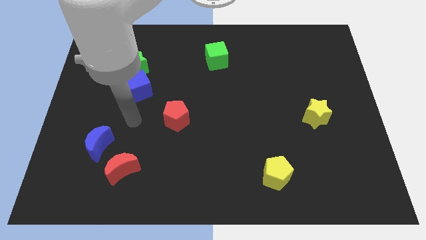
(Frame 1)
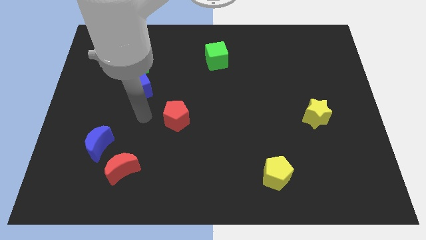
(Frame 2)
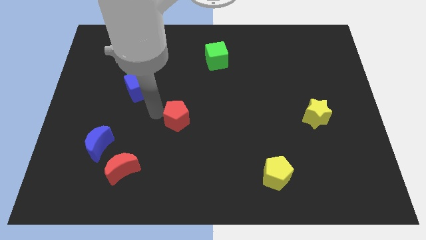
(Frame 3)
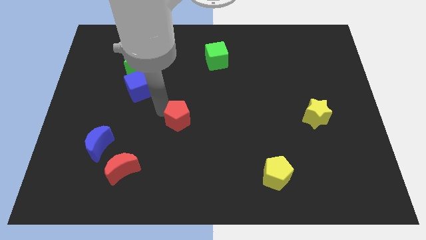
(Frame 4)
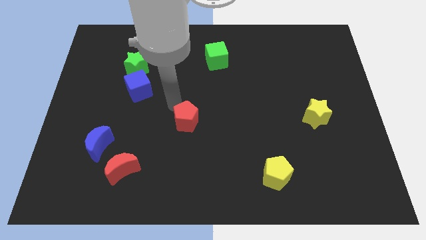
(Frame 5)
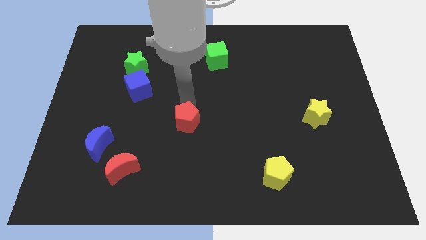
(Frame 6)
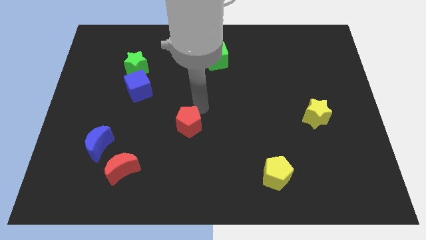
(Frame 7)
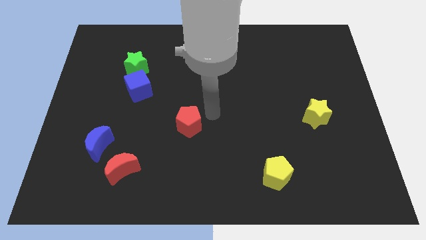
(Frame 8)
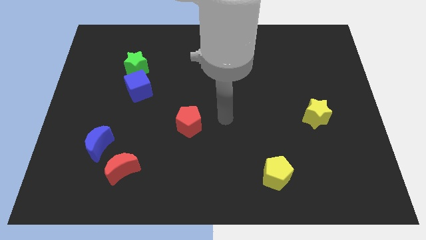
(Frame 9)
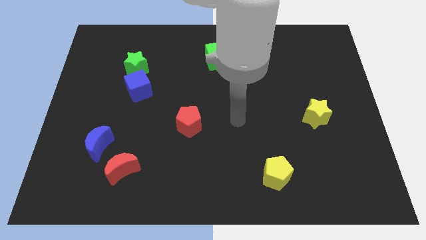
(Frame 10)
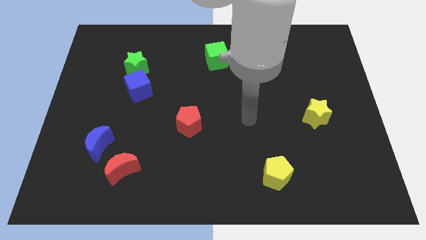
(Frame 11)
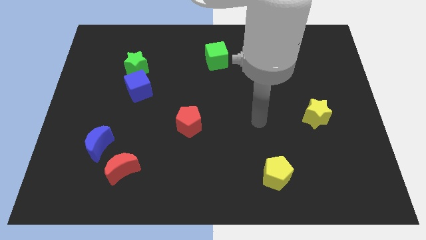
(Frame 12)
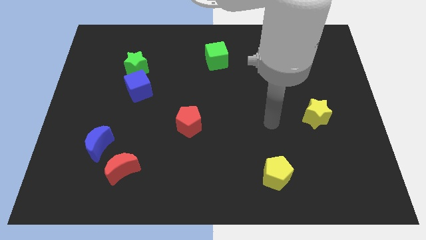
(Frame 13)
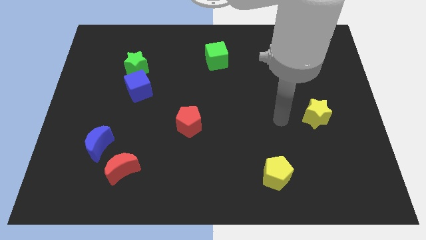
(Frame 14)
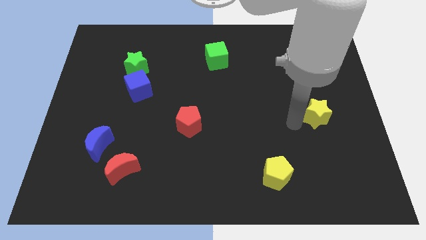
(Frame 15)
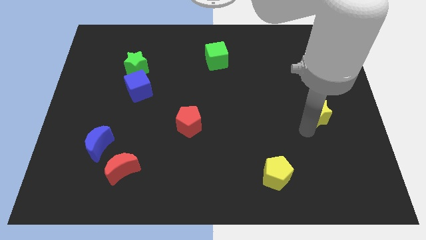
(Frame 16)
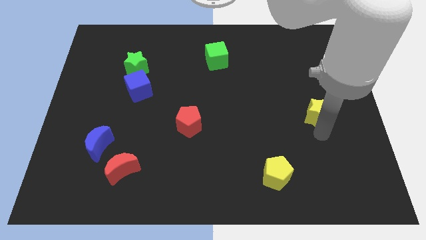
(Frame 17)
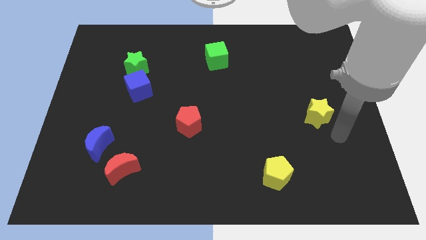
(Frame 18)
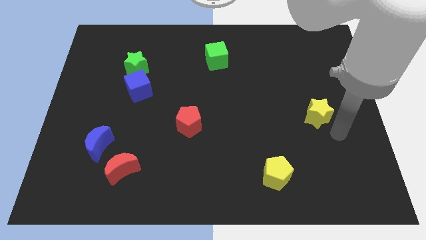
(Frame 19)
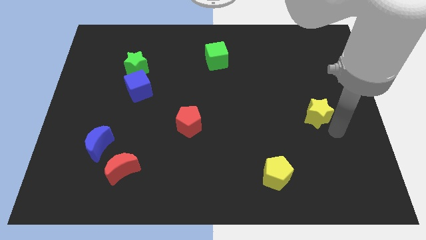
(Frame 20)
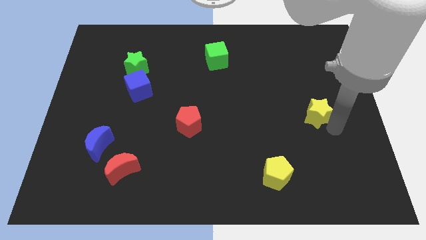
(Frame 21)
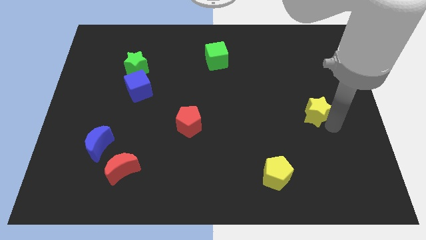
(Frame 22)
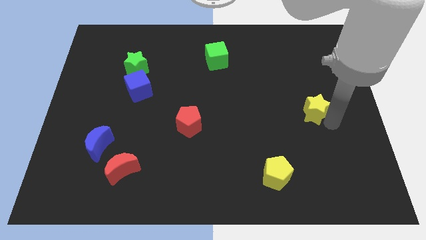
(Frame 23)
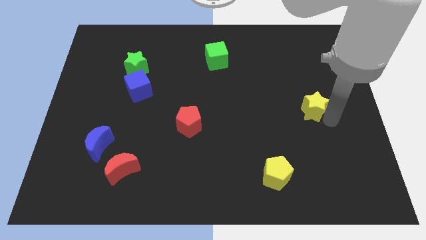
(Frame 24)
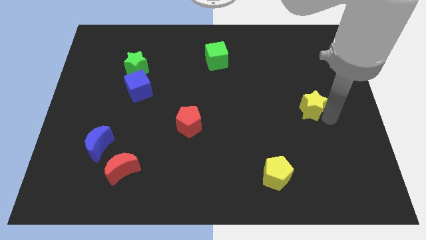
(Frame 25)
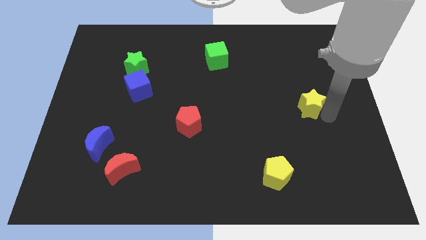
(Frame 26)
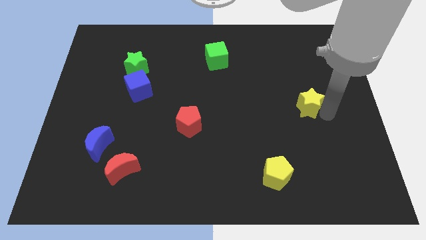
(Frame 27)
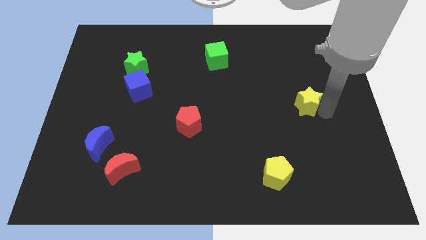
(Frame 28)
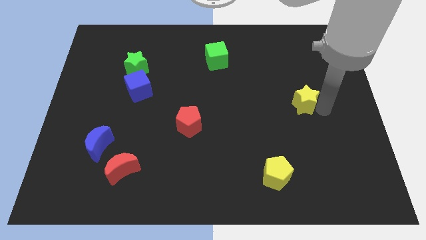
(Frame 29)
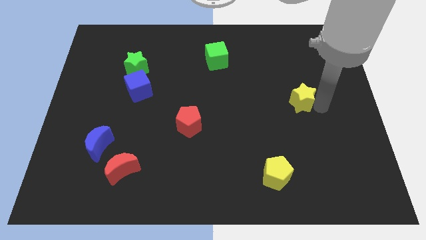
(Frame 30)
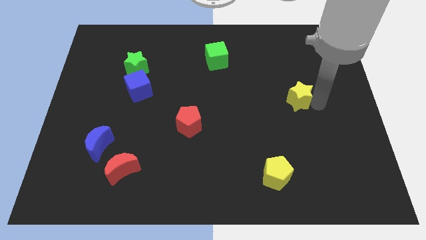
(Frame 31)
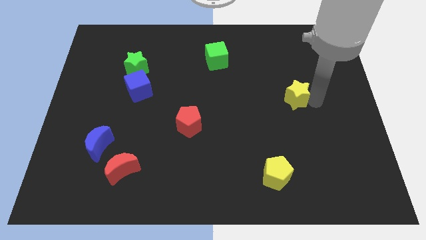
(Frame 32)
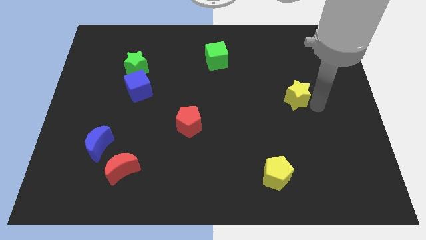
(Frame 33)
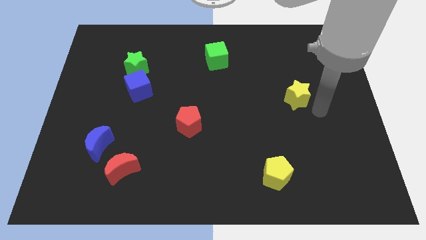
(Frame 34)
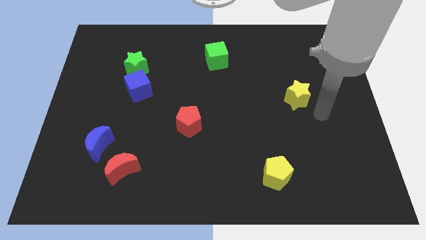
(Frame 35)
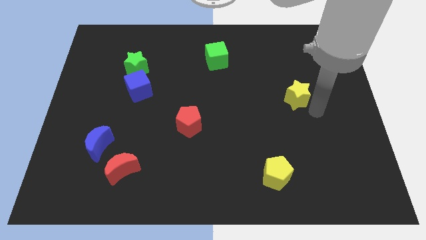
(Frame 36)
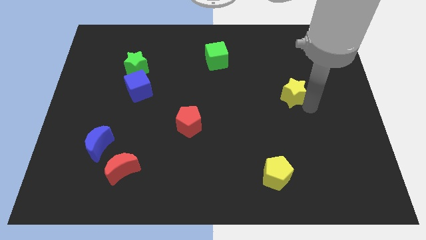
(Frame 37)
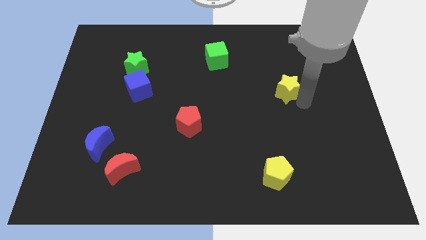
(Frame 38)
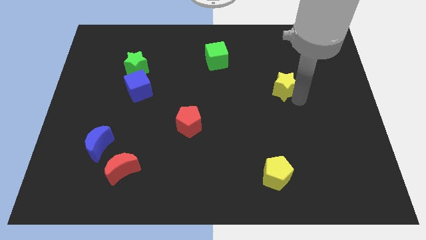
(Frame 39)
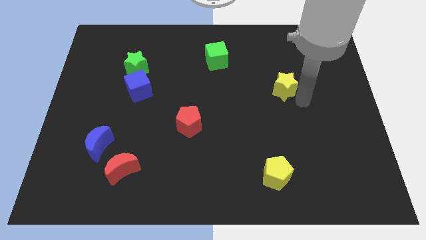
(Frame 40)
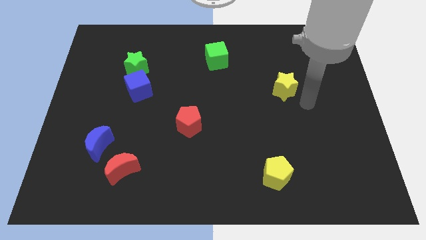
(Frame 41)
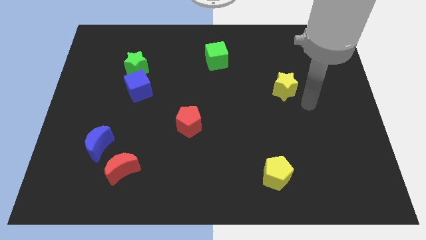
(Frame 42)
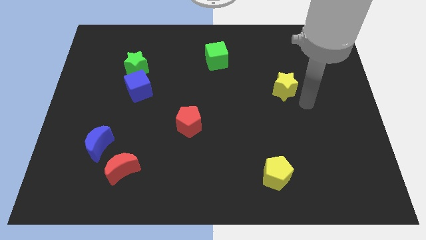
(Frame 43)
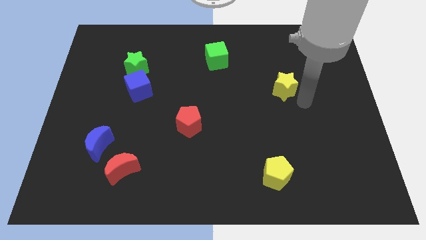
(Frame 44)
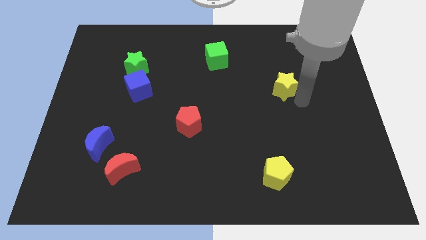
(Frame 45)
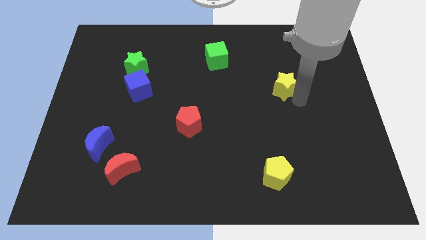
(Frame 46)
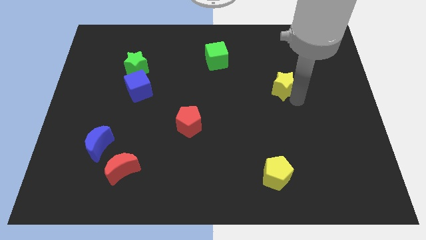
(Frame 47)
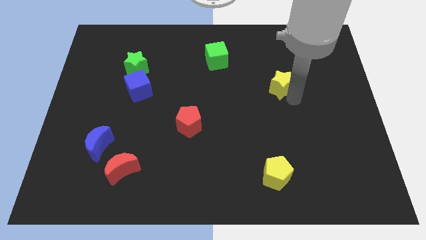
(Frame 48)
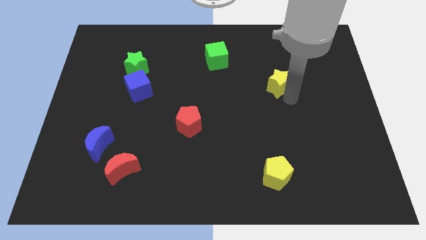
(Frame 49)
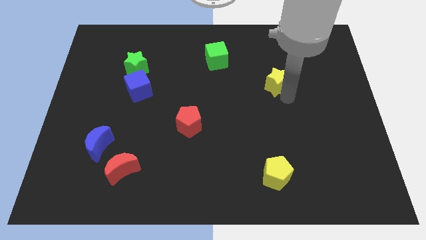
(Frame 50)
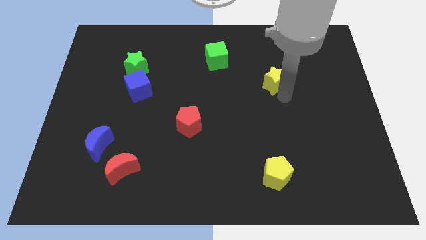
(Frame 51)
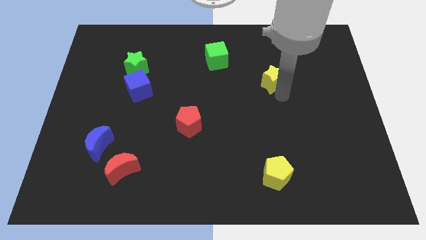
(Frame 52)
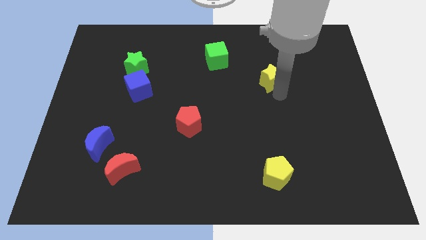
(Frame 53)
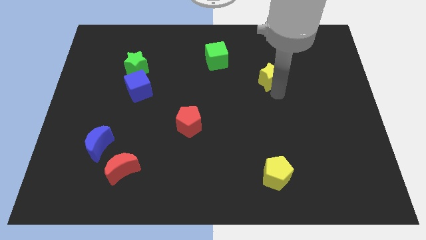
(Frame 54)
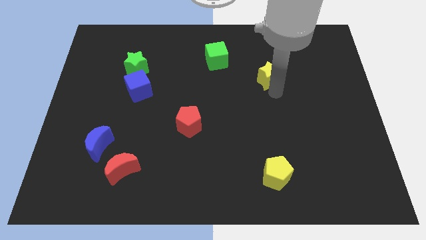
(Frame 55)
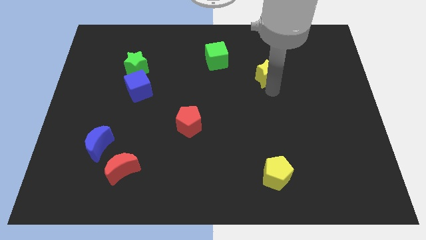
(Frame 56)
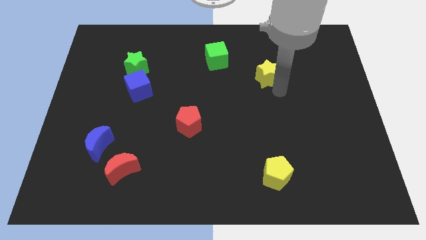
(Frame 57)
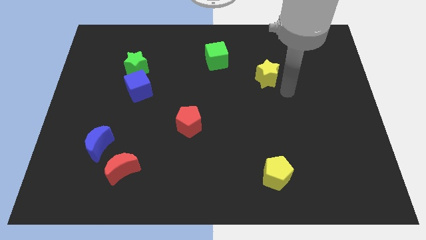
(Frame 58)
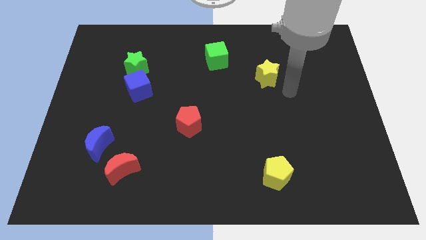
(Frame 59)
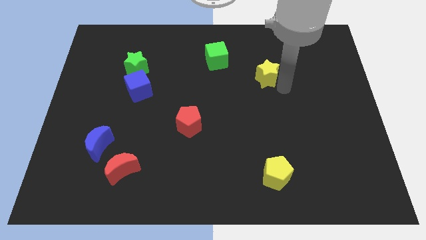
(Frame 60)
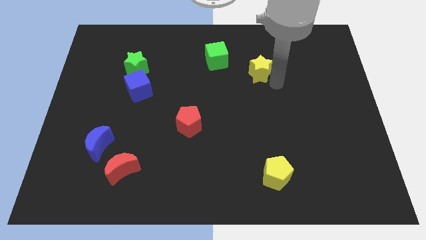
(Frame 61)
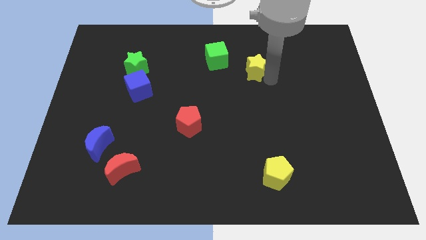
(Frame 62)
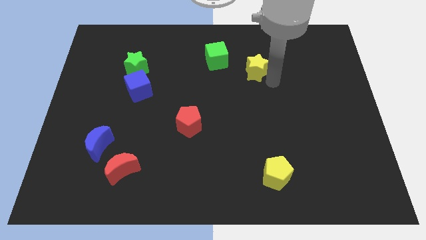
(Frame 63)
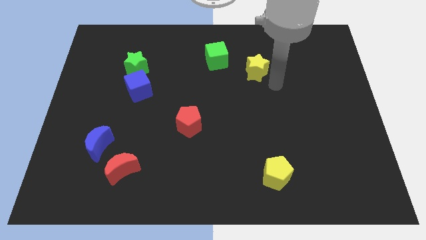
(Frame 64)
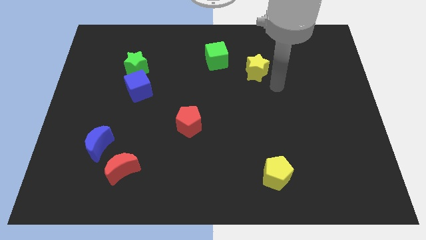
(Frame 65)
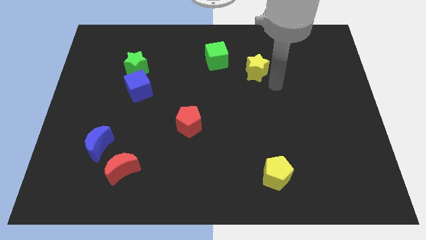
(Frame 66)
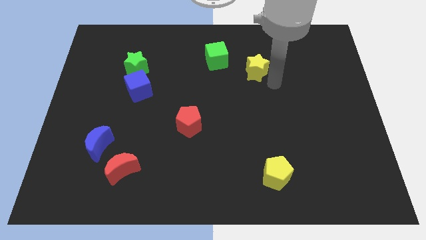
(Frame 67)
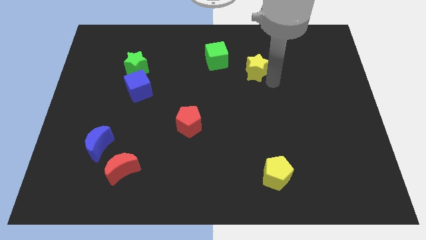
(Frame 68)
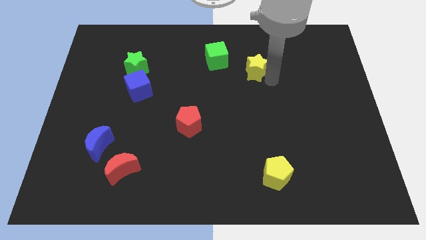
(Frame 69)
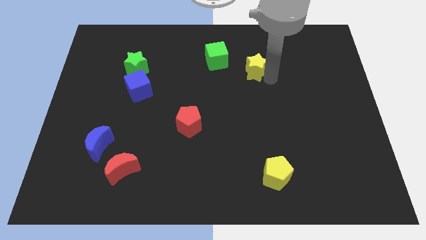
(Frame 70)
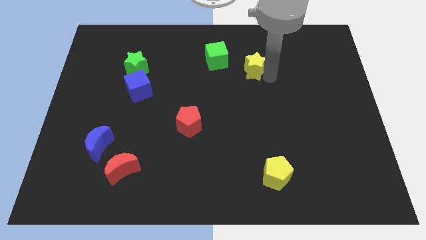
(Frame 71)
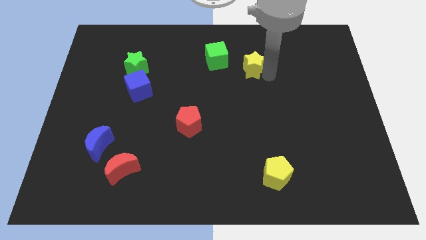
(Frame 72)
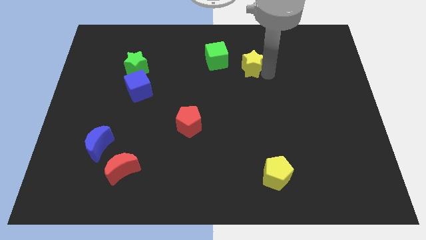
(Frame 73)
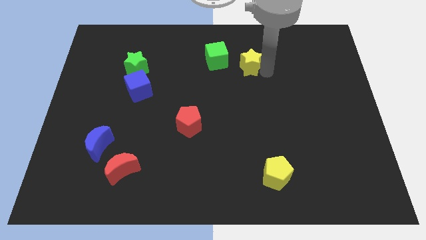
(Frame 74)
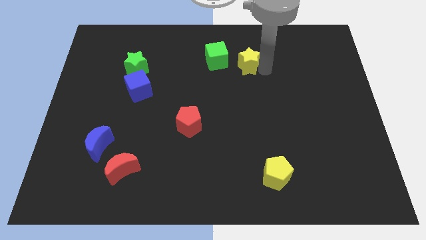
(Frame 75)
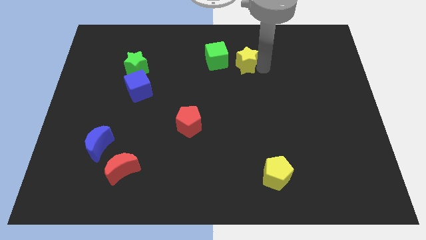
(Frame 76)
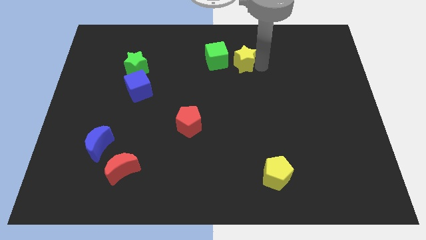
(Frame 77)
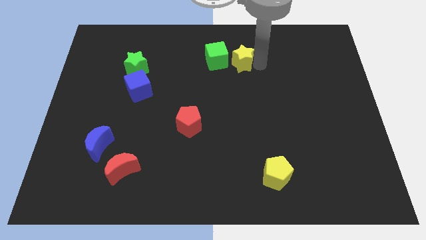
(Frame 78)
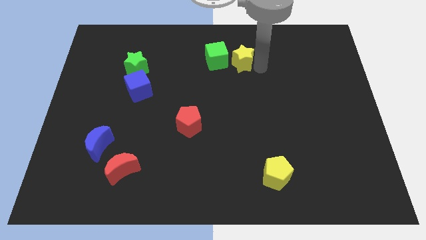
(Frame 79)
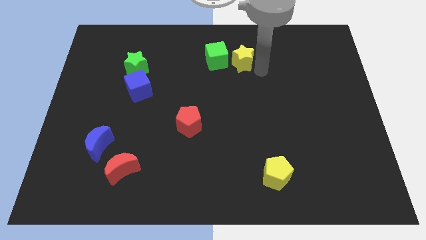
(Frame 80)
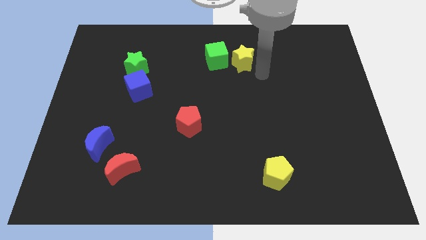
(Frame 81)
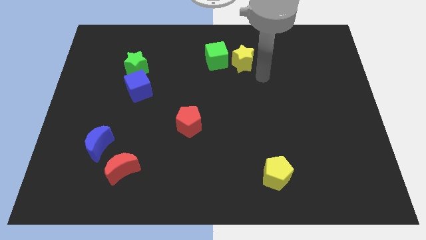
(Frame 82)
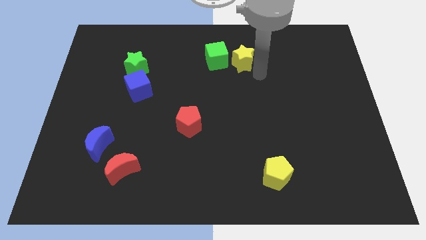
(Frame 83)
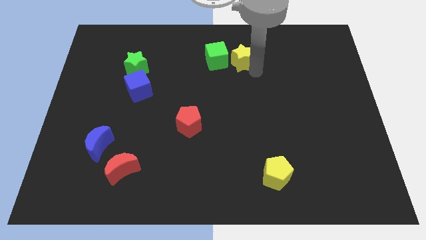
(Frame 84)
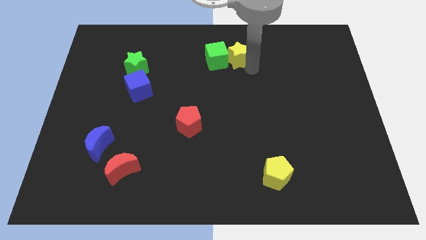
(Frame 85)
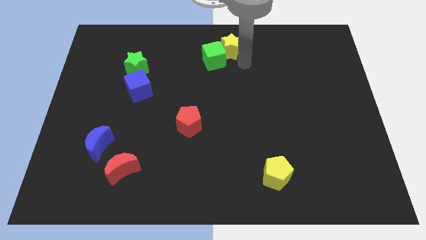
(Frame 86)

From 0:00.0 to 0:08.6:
push the yellow star to the top side
